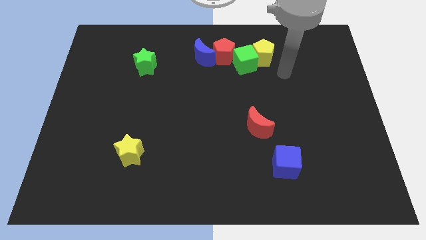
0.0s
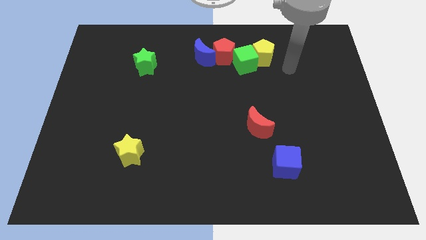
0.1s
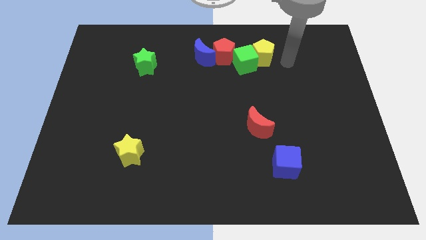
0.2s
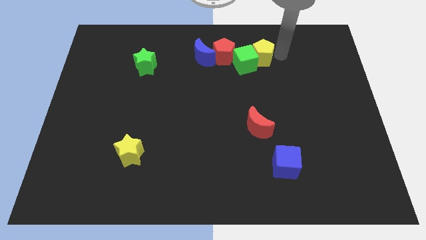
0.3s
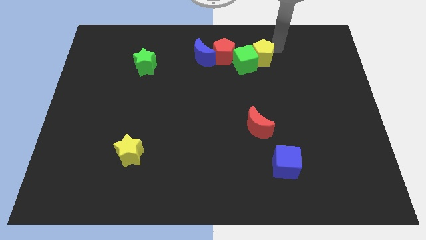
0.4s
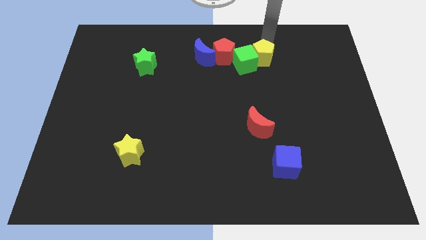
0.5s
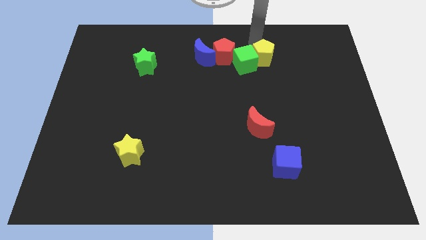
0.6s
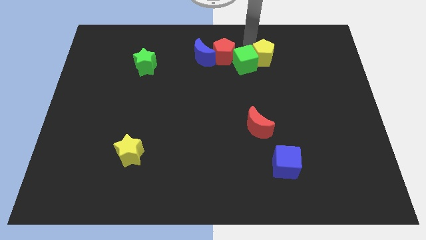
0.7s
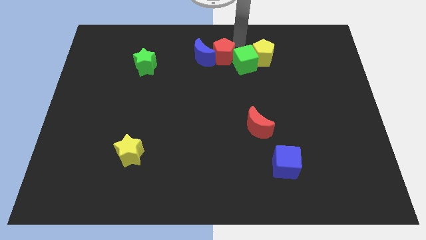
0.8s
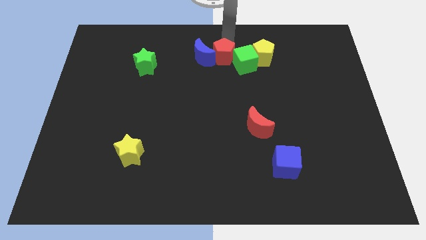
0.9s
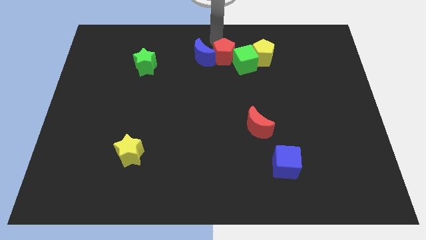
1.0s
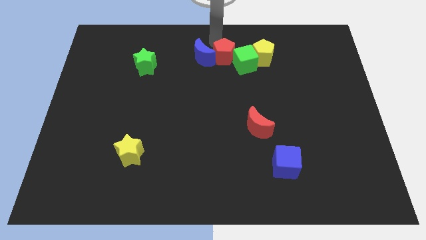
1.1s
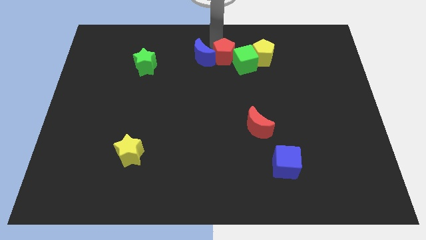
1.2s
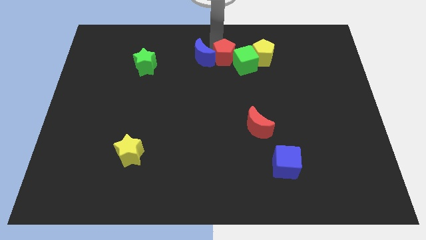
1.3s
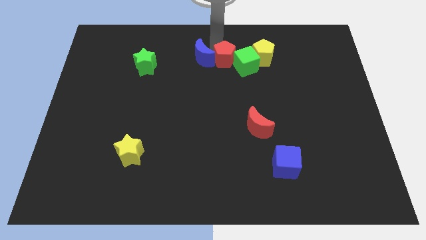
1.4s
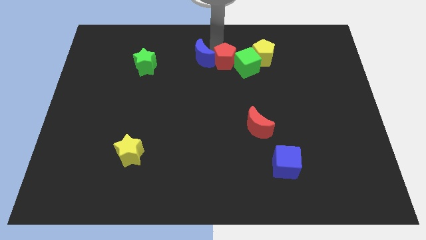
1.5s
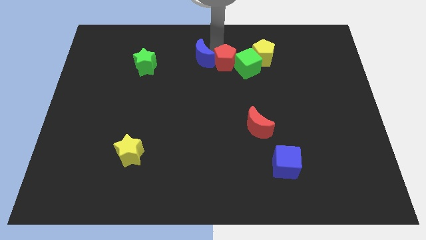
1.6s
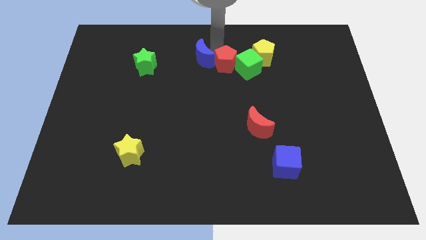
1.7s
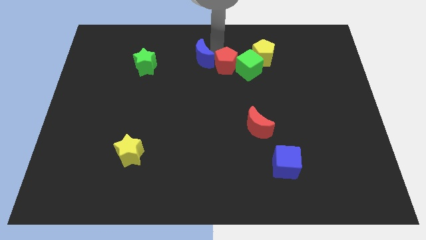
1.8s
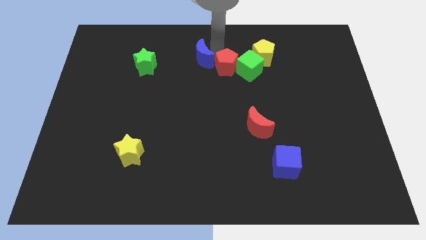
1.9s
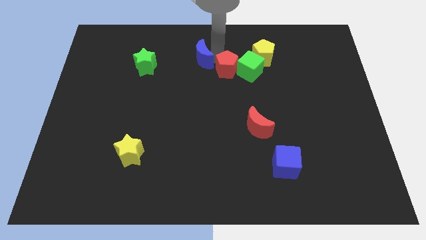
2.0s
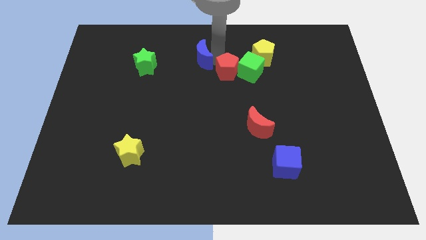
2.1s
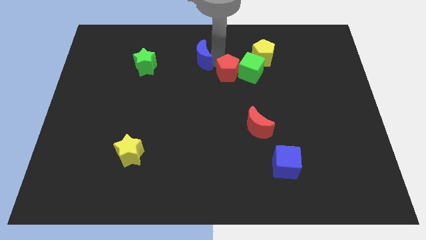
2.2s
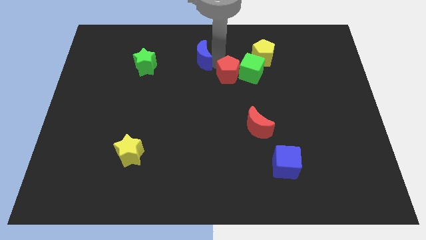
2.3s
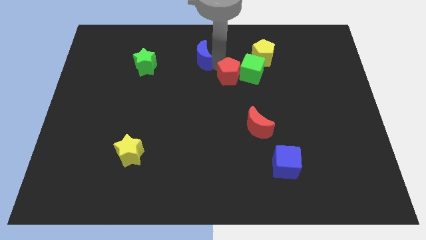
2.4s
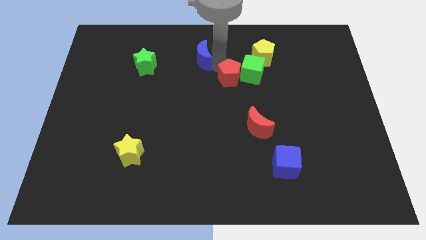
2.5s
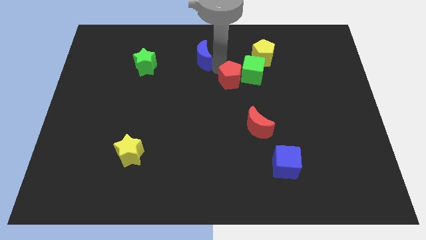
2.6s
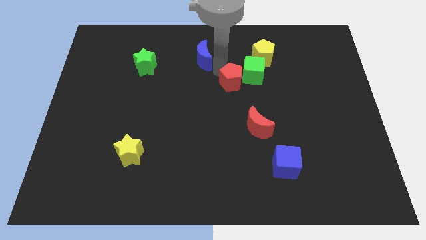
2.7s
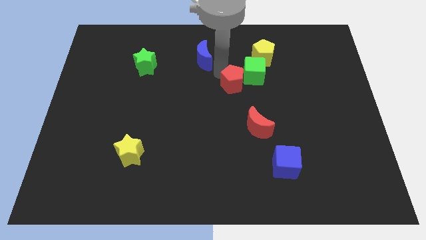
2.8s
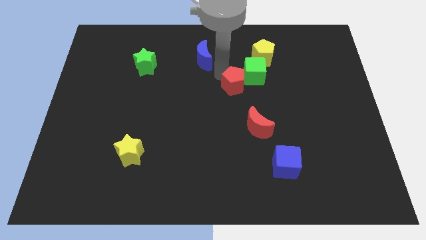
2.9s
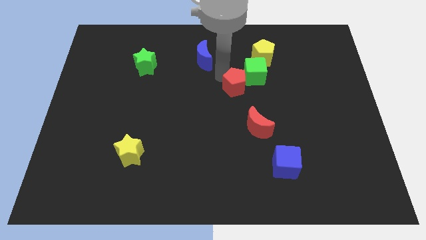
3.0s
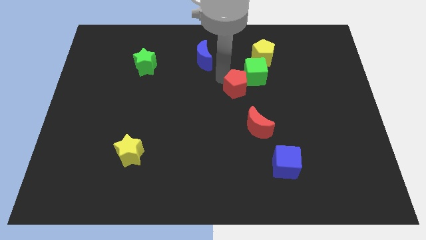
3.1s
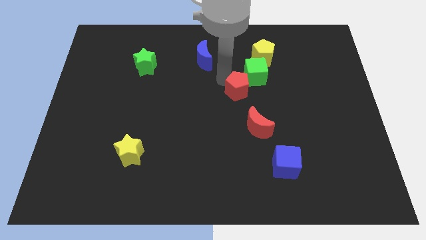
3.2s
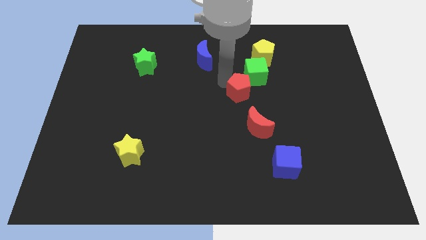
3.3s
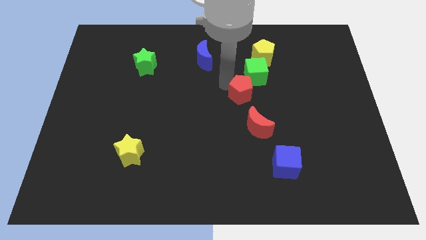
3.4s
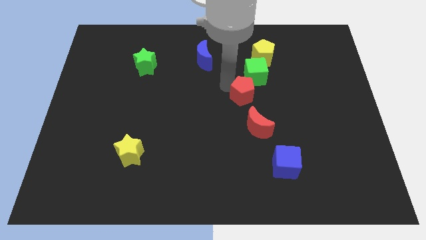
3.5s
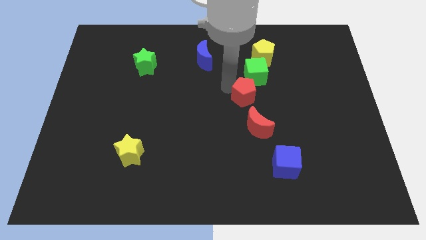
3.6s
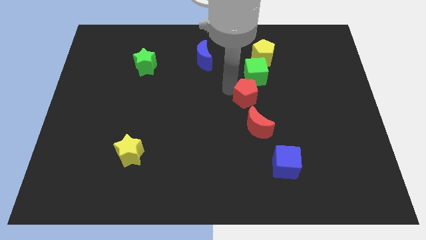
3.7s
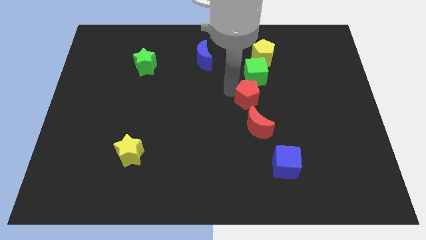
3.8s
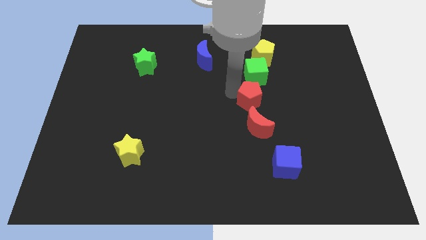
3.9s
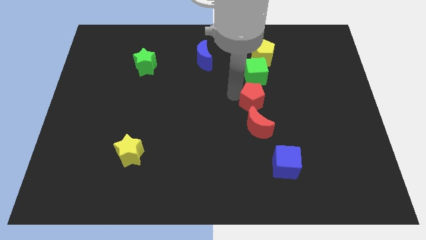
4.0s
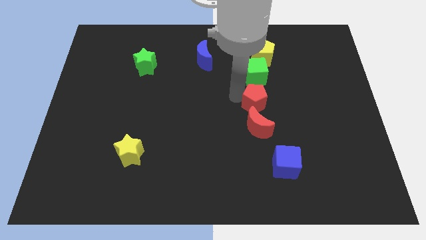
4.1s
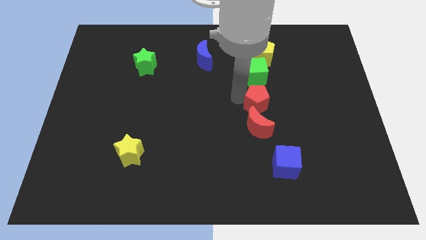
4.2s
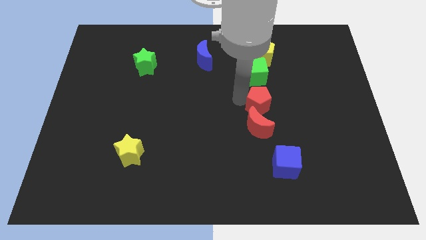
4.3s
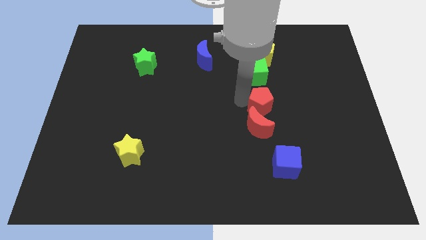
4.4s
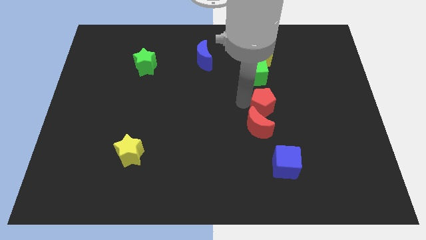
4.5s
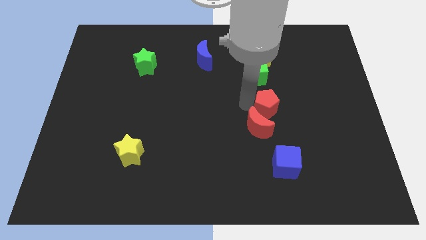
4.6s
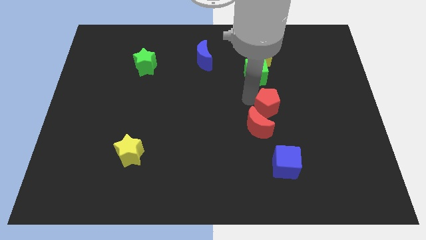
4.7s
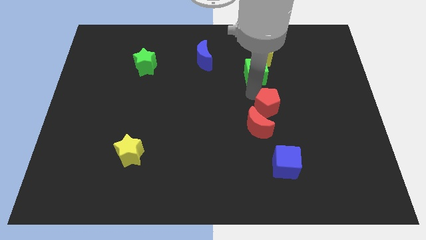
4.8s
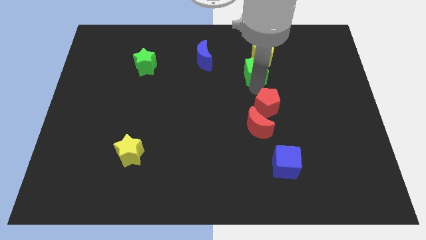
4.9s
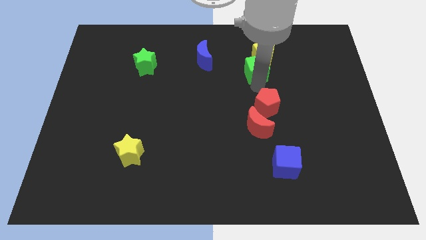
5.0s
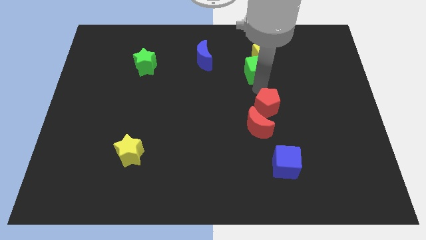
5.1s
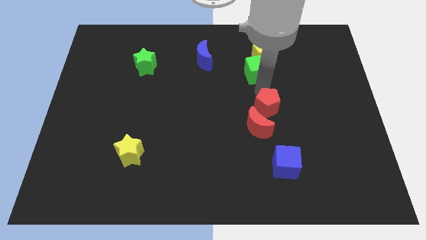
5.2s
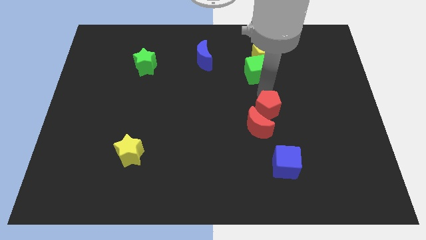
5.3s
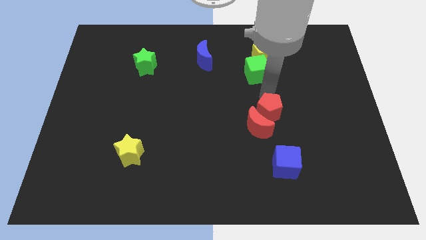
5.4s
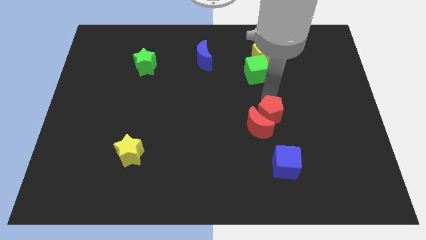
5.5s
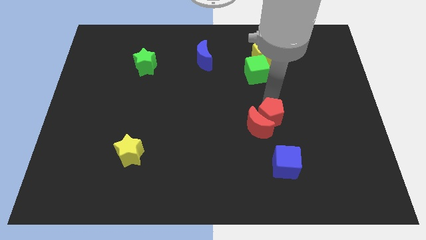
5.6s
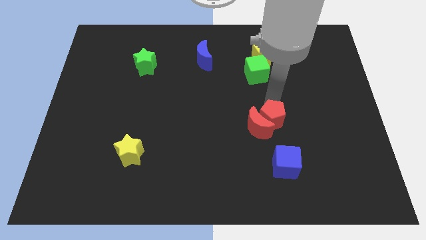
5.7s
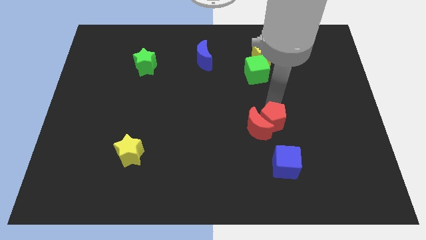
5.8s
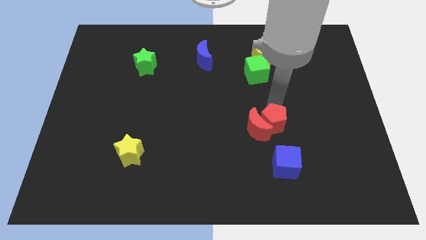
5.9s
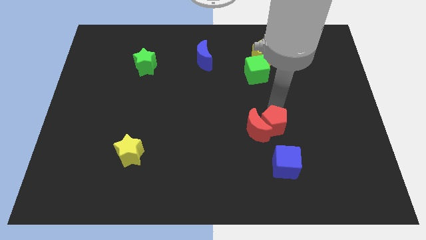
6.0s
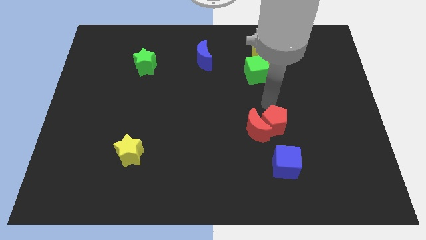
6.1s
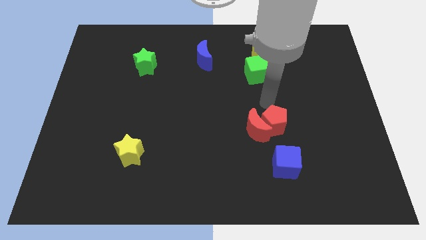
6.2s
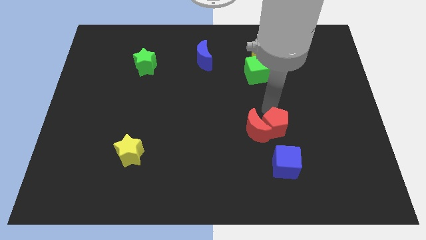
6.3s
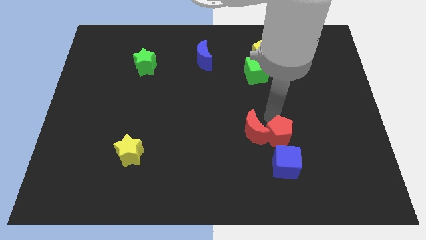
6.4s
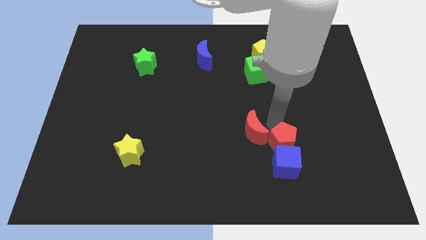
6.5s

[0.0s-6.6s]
move the red pentagon to the blue cube

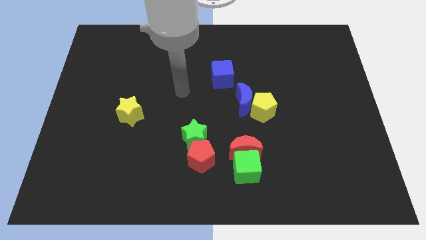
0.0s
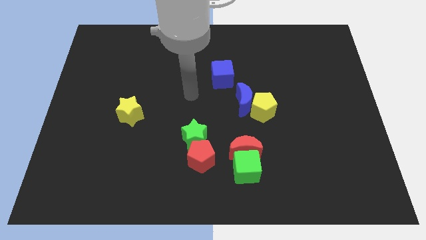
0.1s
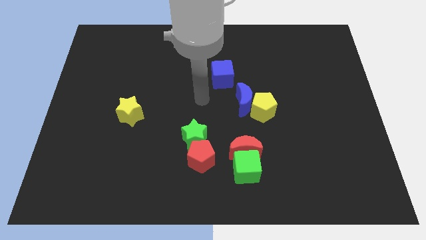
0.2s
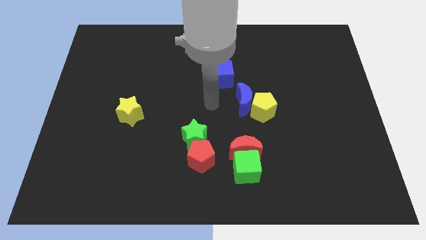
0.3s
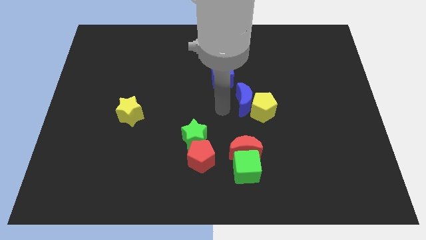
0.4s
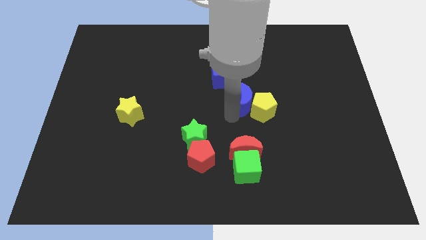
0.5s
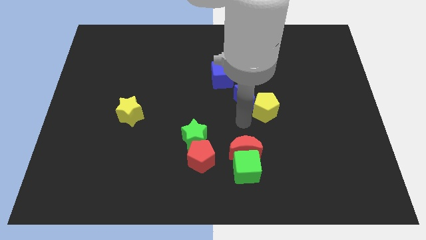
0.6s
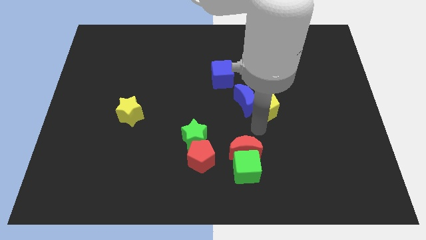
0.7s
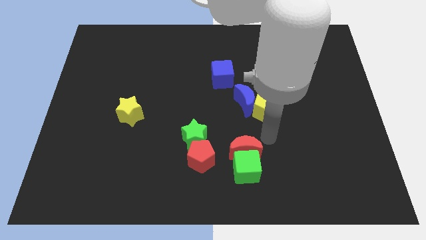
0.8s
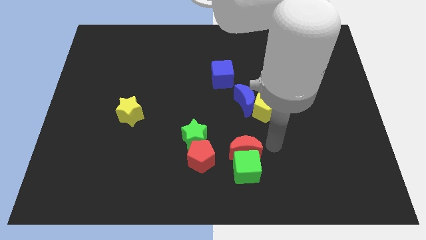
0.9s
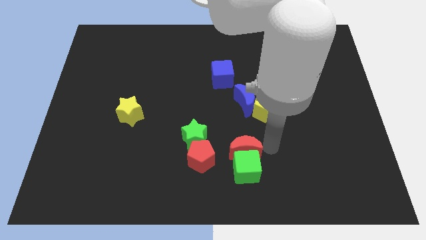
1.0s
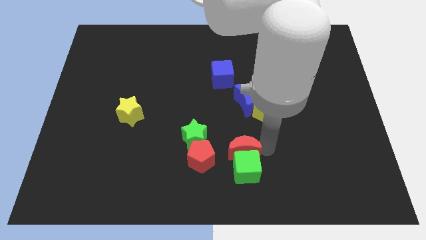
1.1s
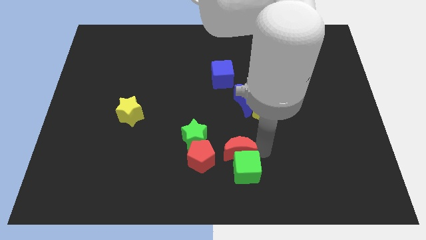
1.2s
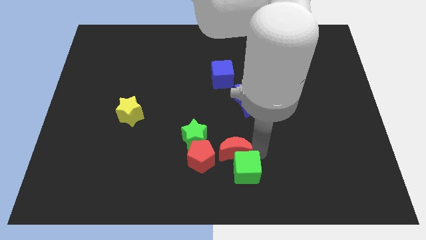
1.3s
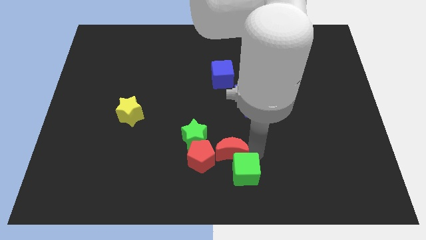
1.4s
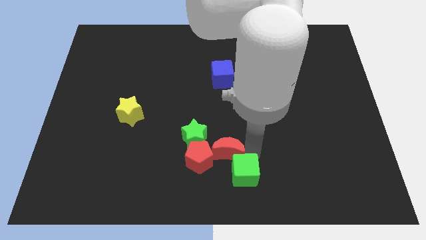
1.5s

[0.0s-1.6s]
slide the red moon close to the red pentagon
